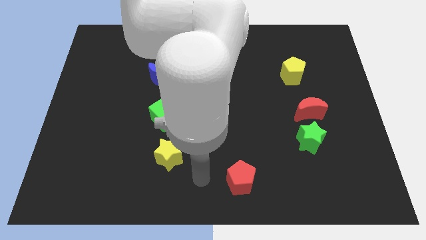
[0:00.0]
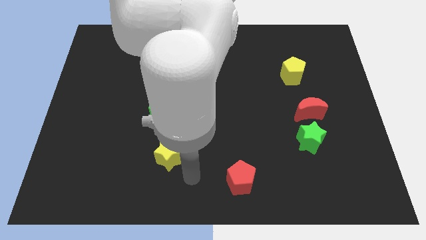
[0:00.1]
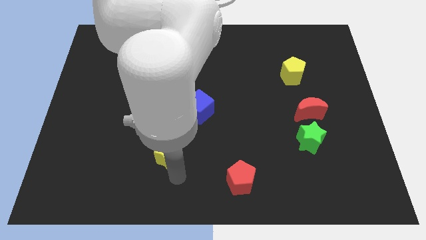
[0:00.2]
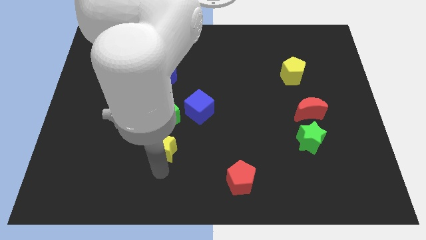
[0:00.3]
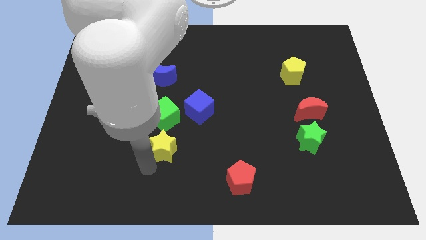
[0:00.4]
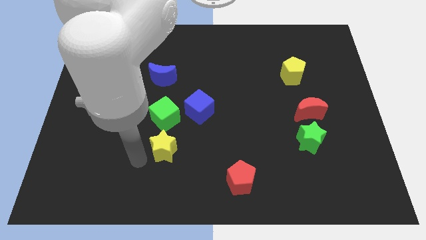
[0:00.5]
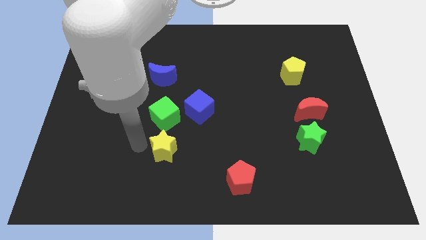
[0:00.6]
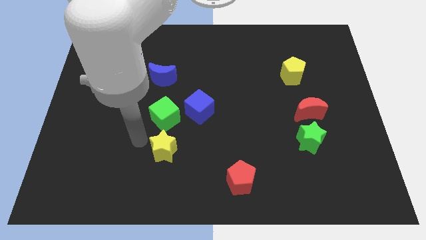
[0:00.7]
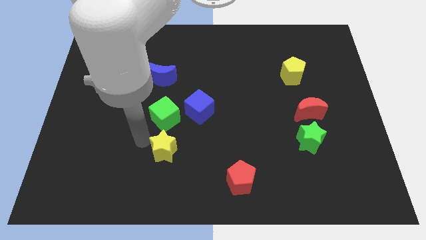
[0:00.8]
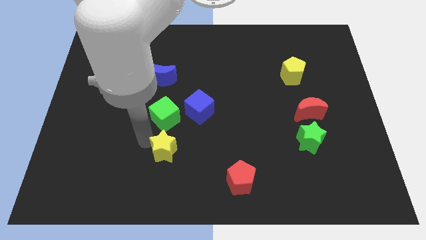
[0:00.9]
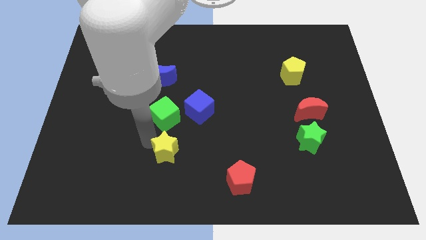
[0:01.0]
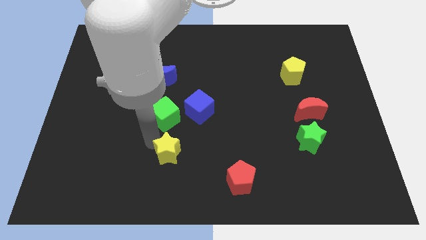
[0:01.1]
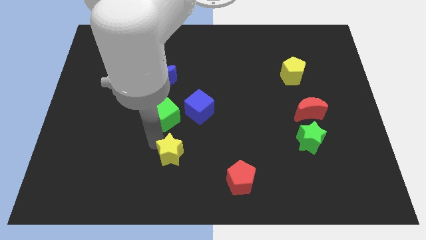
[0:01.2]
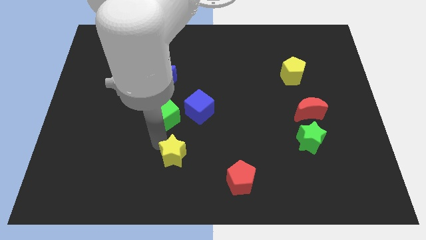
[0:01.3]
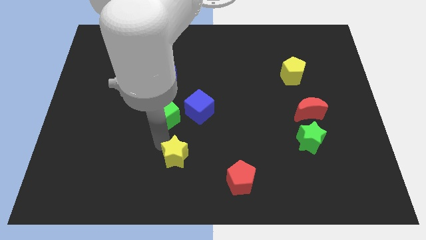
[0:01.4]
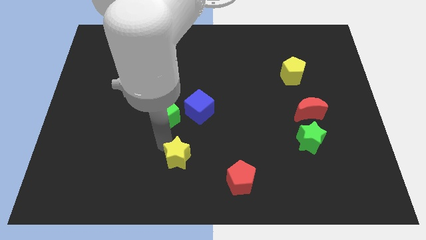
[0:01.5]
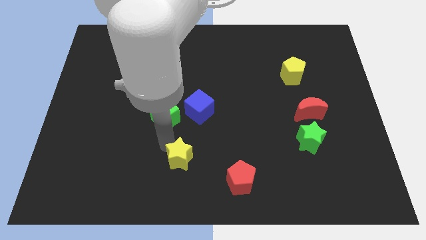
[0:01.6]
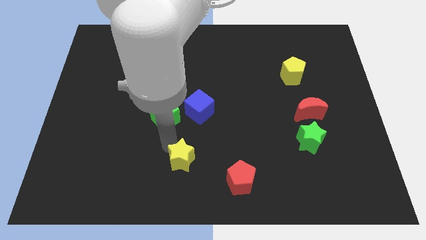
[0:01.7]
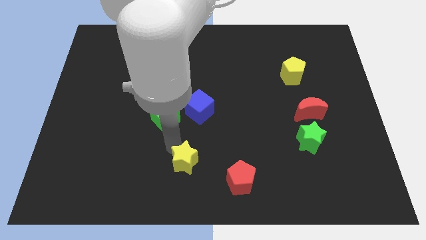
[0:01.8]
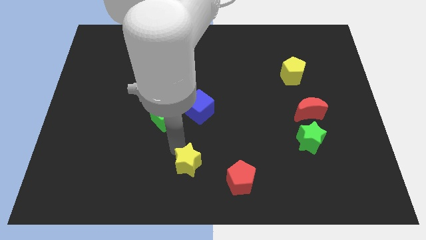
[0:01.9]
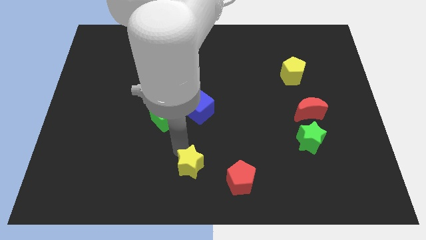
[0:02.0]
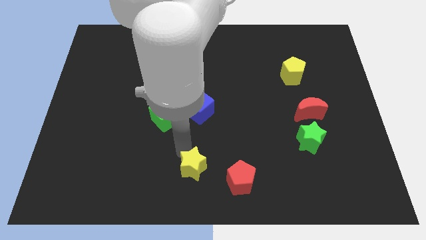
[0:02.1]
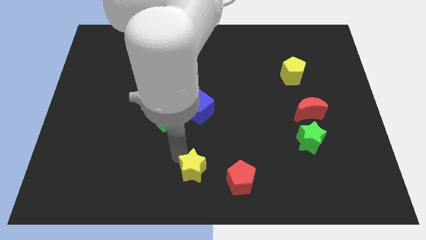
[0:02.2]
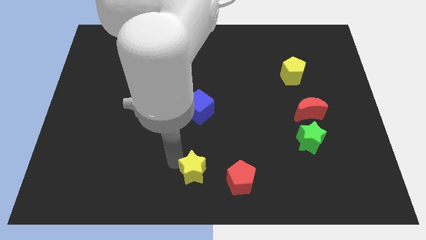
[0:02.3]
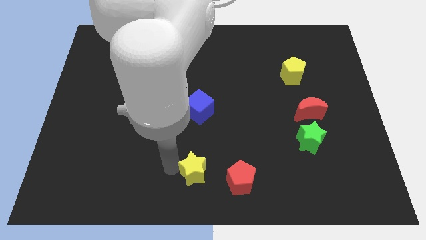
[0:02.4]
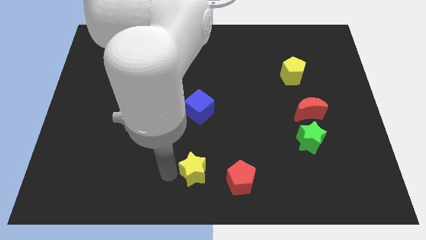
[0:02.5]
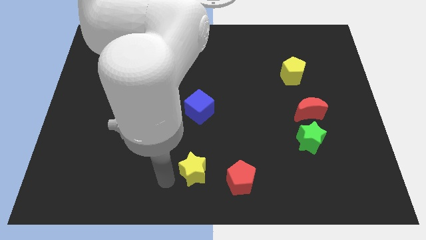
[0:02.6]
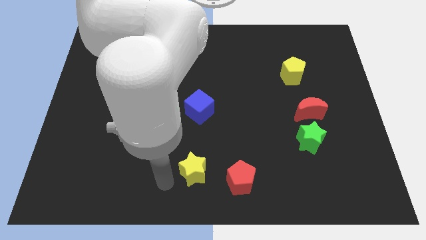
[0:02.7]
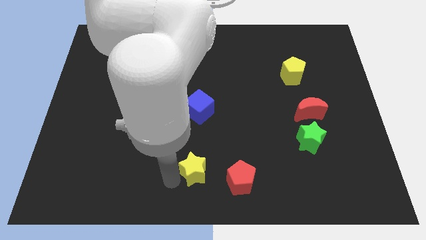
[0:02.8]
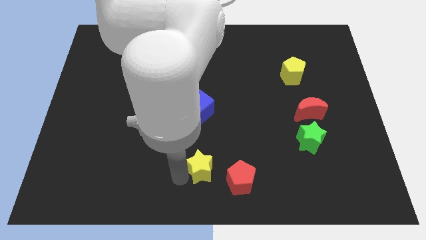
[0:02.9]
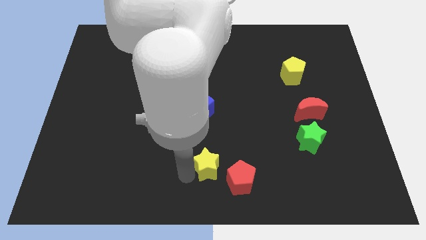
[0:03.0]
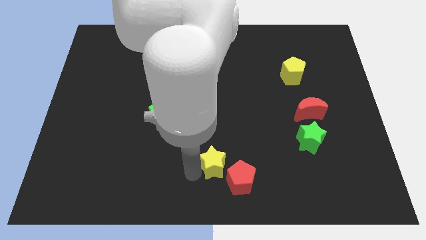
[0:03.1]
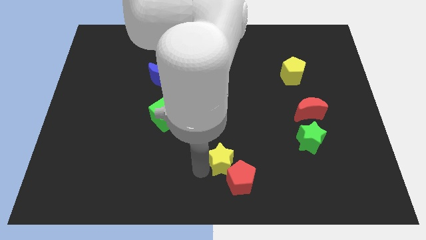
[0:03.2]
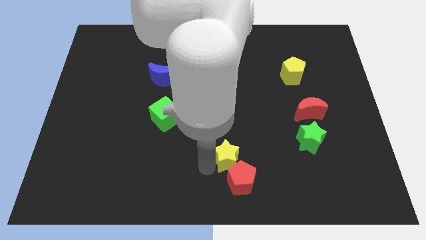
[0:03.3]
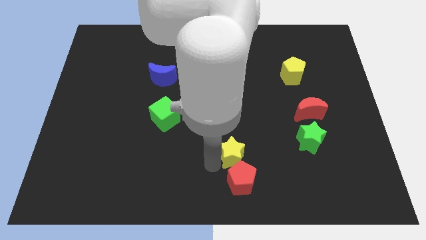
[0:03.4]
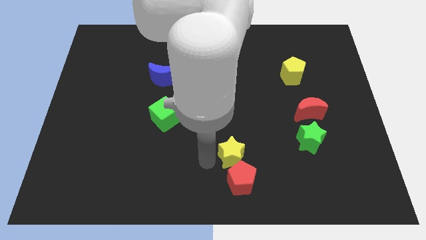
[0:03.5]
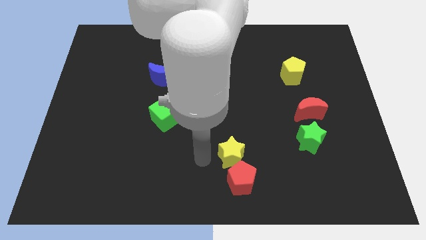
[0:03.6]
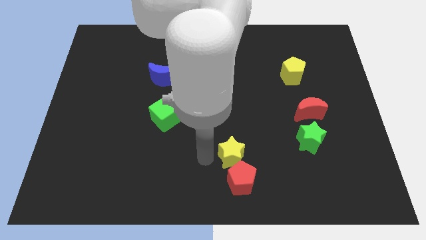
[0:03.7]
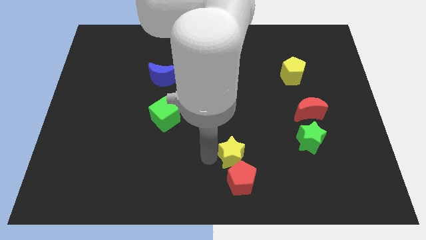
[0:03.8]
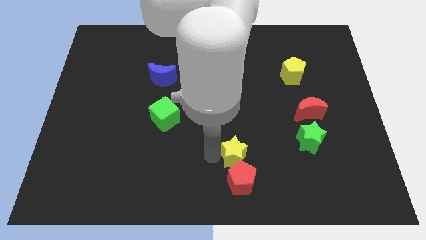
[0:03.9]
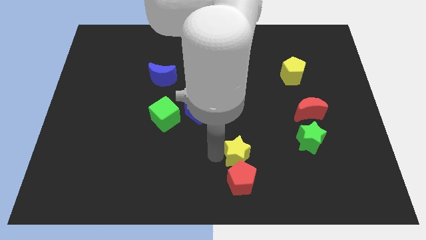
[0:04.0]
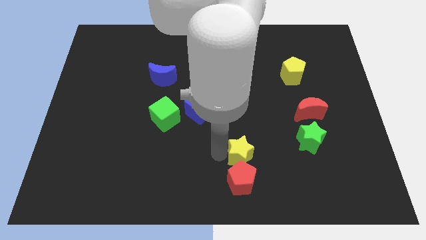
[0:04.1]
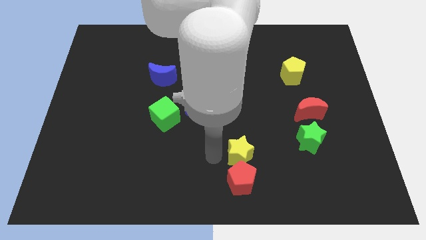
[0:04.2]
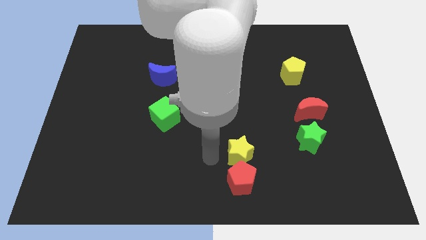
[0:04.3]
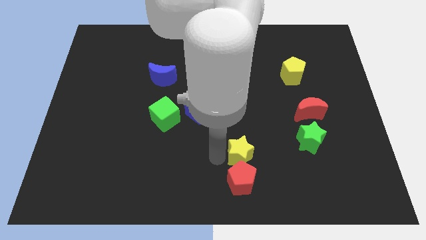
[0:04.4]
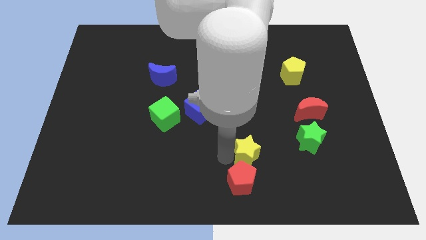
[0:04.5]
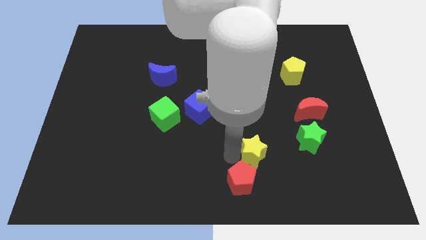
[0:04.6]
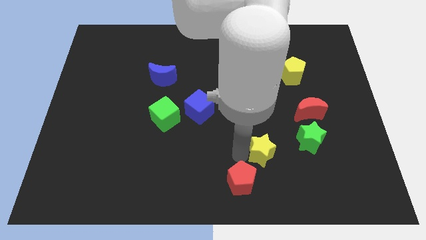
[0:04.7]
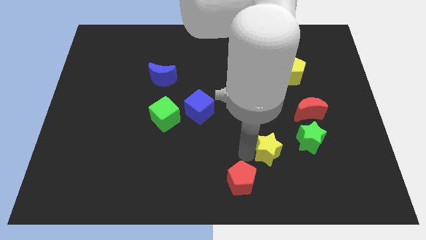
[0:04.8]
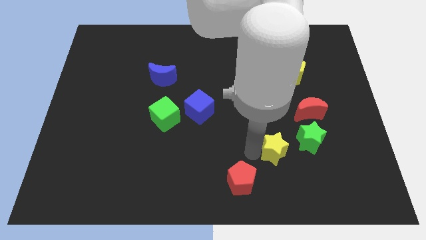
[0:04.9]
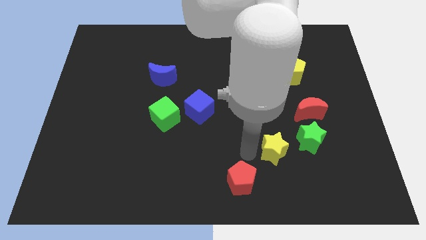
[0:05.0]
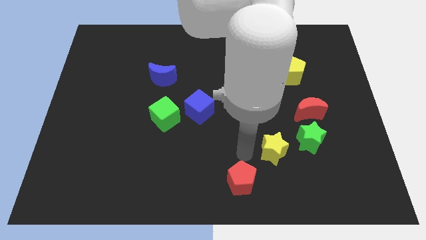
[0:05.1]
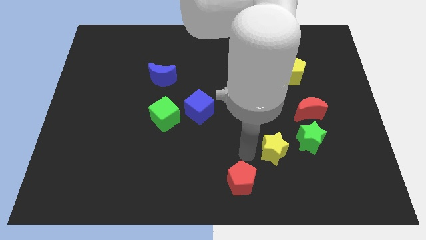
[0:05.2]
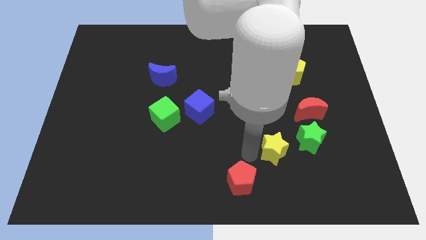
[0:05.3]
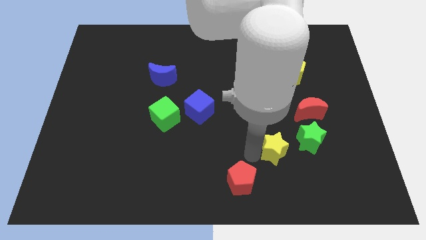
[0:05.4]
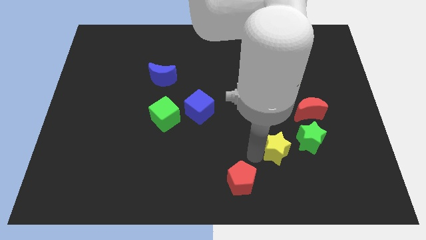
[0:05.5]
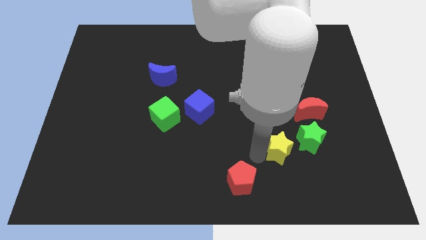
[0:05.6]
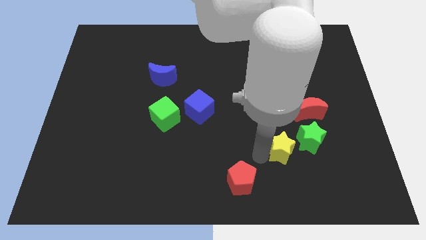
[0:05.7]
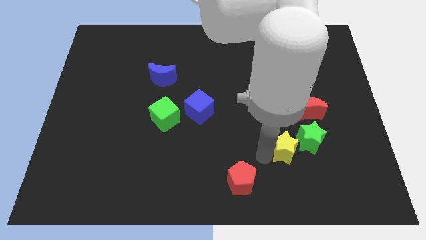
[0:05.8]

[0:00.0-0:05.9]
slide the yellow star towards the green star

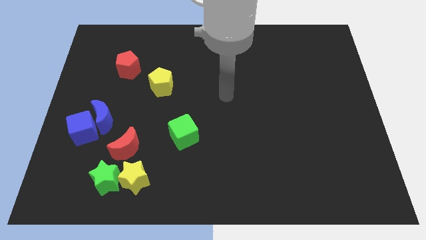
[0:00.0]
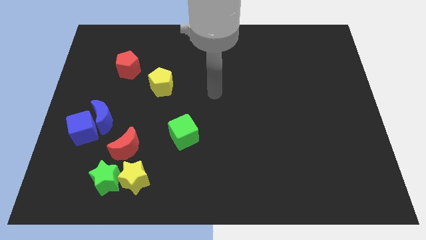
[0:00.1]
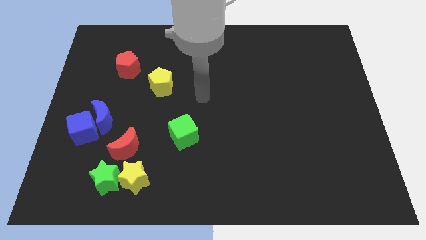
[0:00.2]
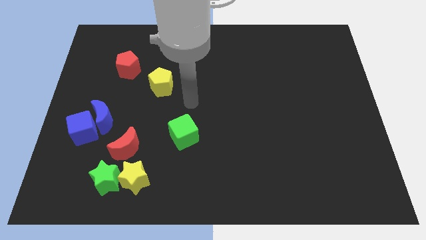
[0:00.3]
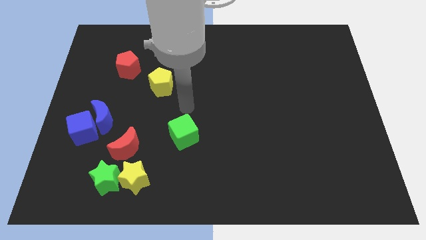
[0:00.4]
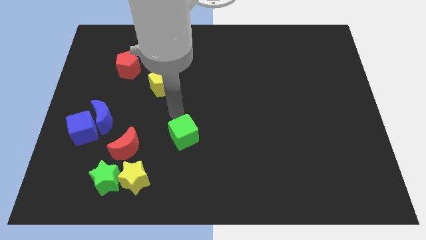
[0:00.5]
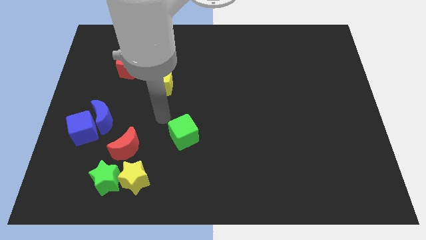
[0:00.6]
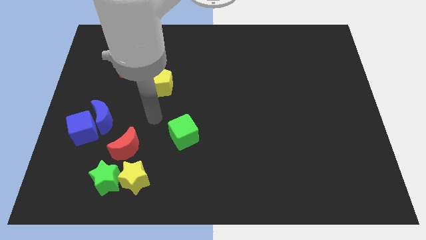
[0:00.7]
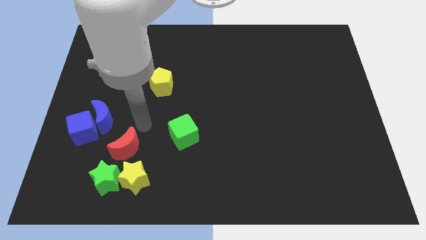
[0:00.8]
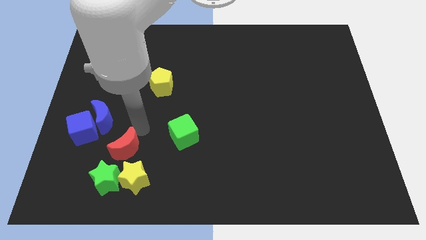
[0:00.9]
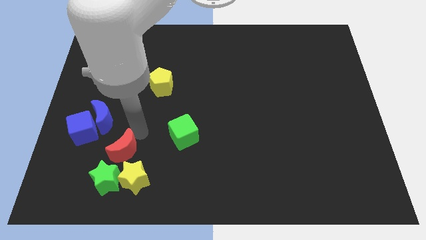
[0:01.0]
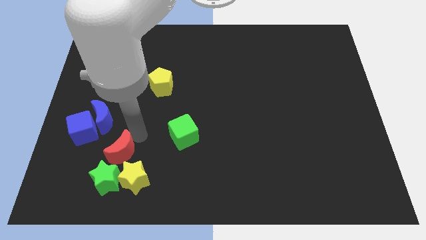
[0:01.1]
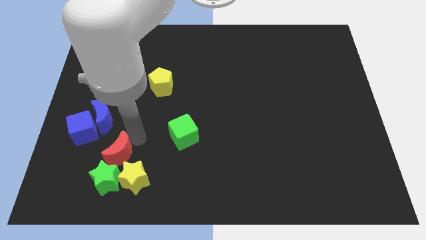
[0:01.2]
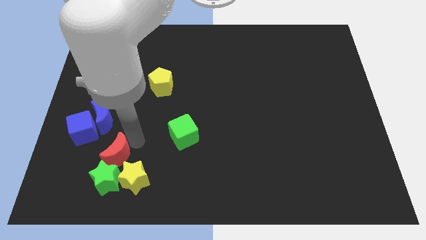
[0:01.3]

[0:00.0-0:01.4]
put the red moon close to the green star
